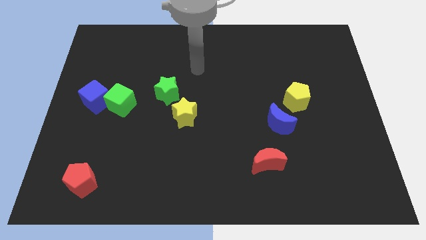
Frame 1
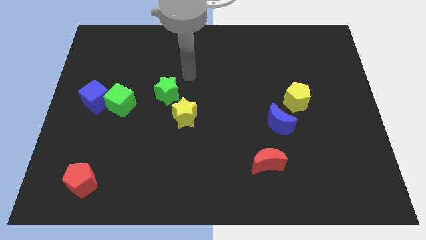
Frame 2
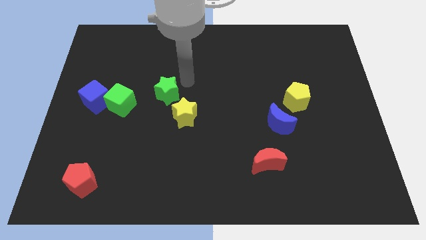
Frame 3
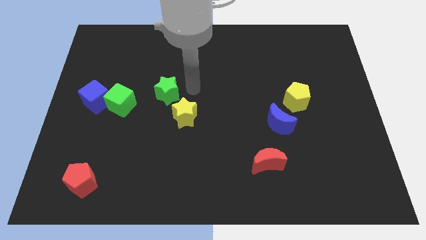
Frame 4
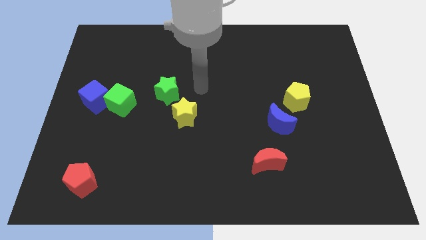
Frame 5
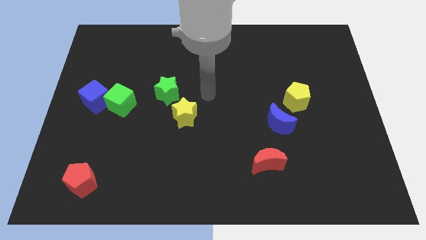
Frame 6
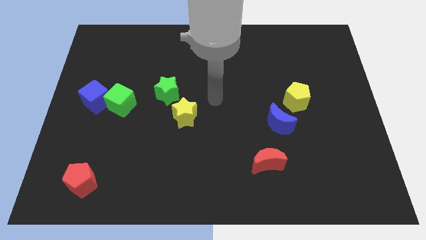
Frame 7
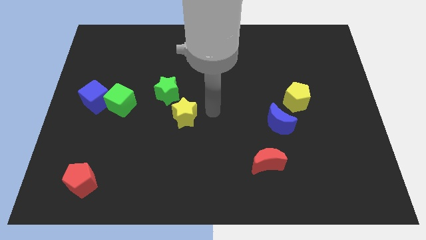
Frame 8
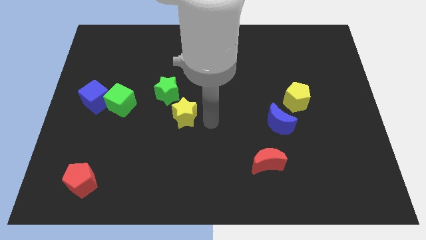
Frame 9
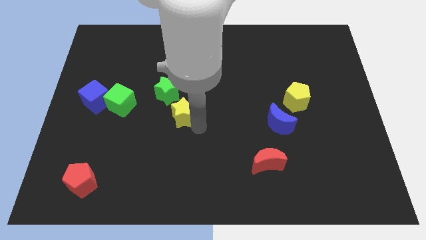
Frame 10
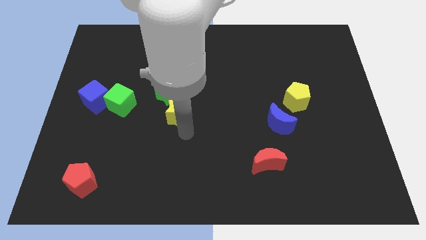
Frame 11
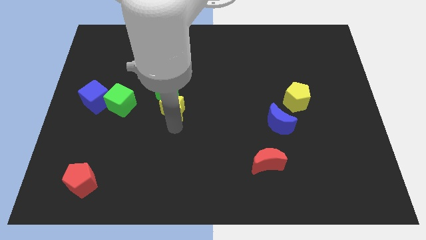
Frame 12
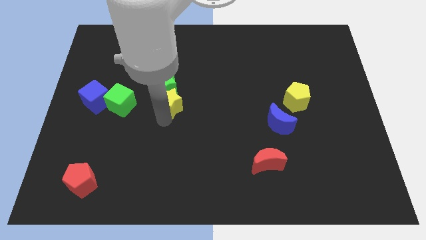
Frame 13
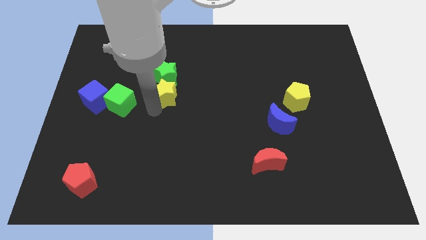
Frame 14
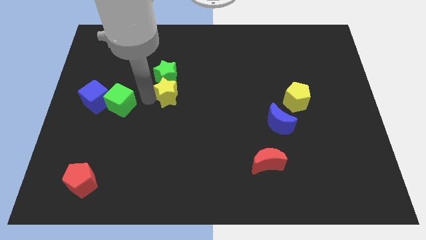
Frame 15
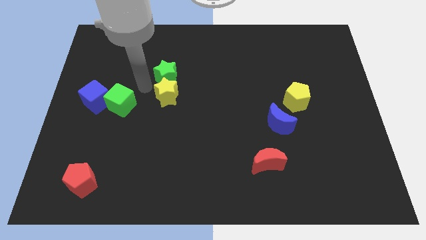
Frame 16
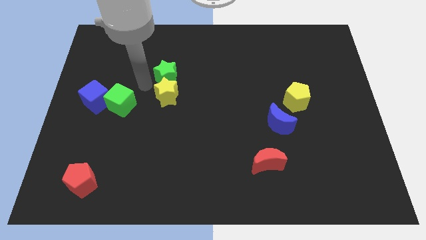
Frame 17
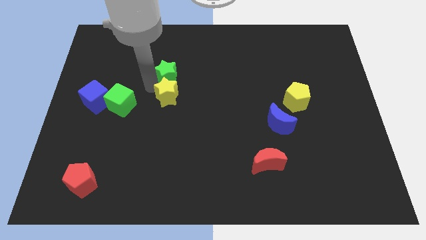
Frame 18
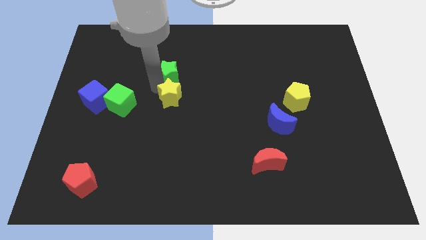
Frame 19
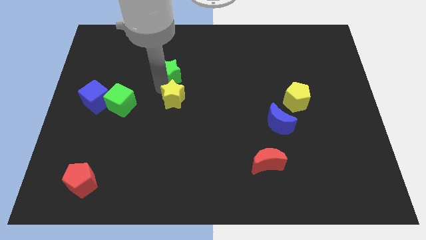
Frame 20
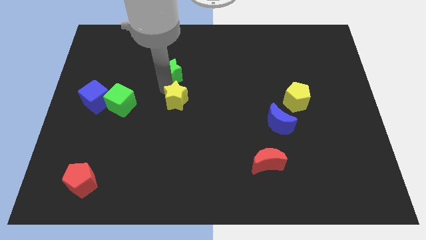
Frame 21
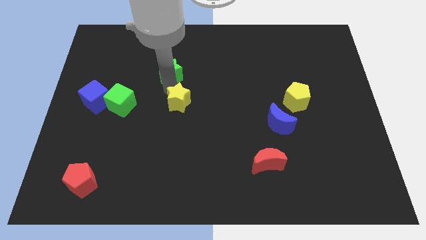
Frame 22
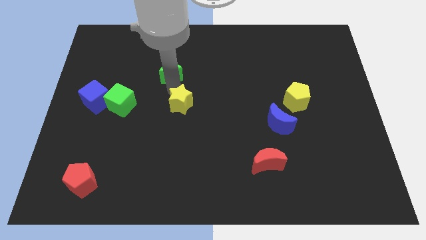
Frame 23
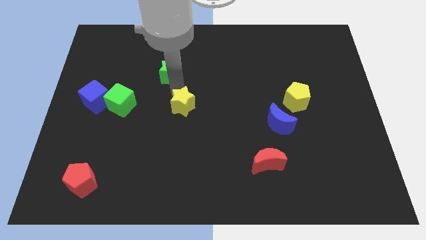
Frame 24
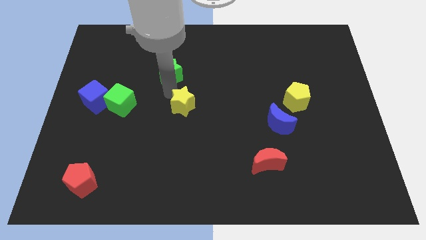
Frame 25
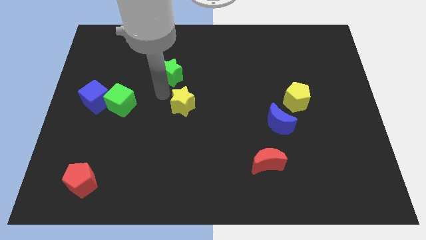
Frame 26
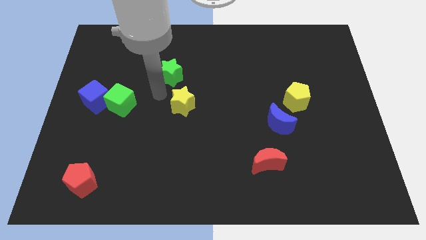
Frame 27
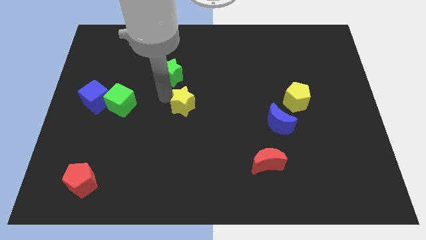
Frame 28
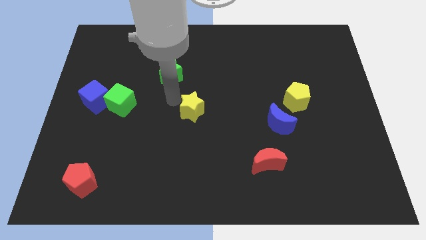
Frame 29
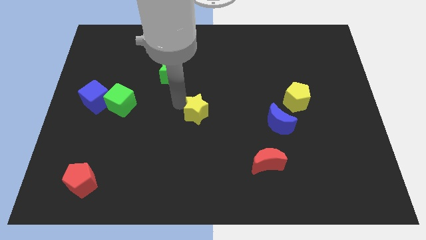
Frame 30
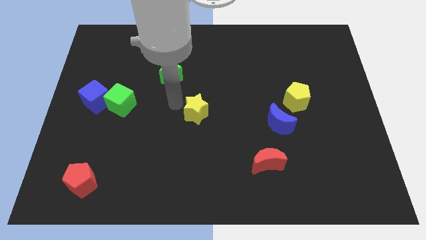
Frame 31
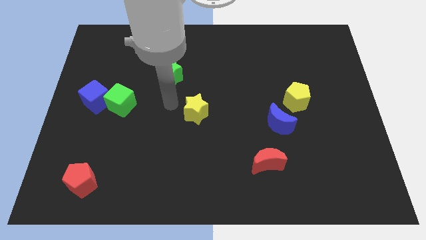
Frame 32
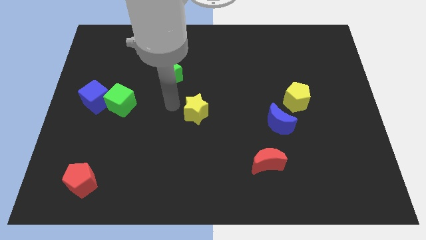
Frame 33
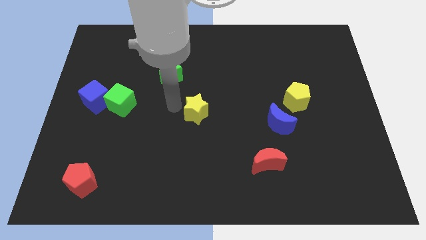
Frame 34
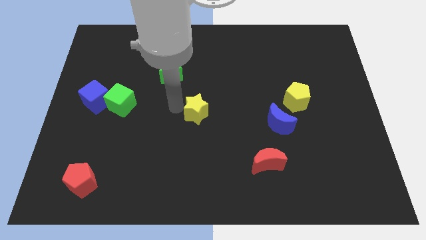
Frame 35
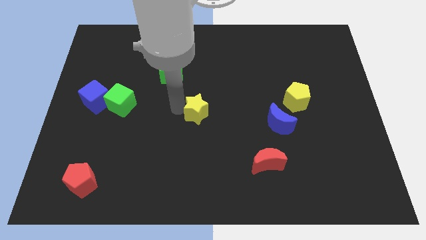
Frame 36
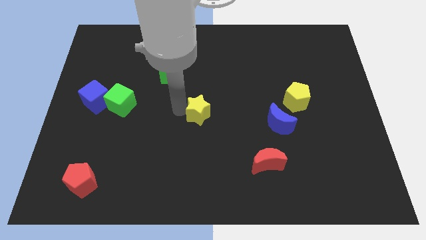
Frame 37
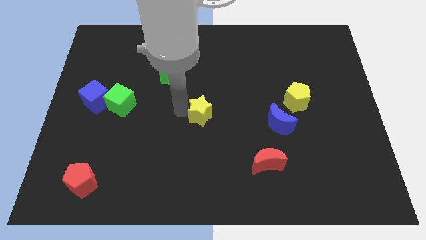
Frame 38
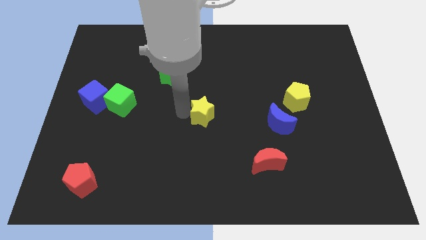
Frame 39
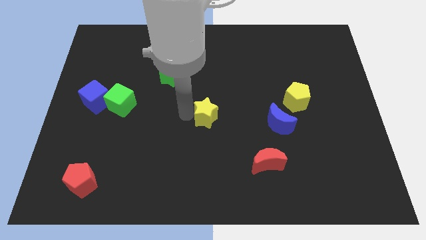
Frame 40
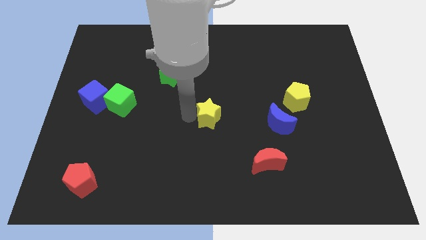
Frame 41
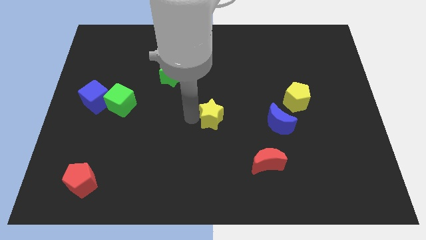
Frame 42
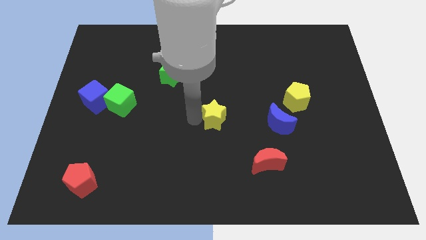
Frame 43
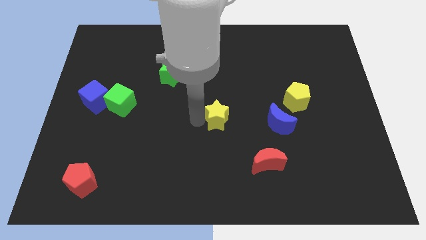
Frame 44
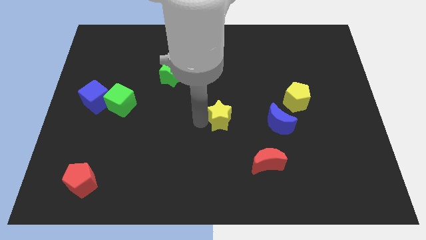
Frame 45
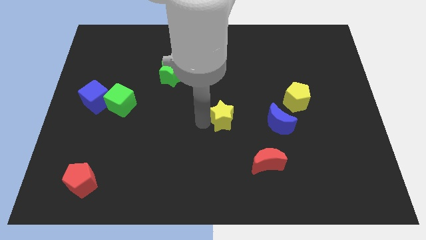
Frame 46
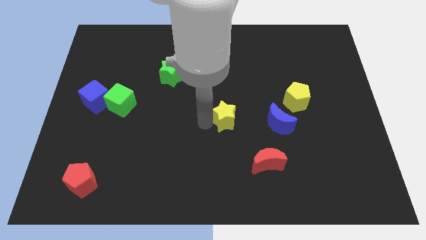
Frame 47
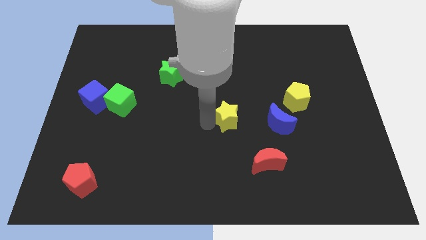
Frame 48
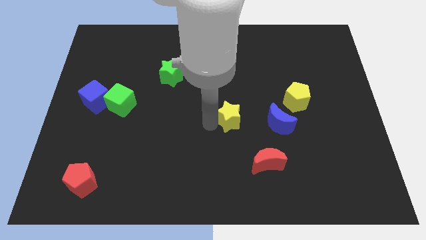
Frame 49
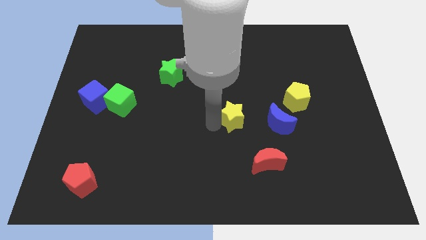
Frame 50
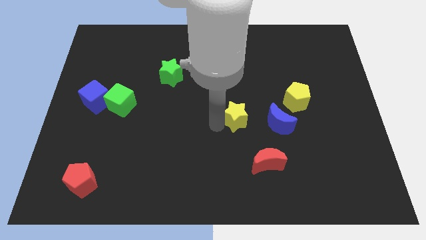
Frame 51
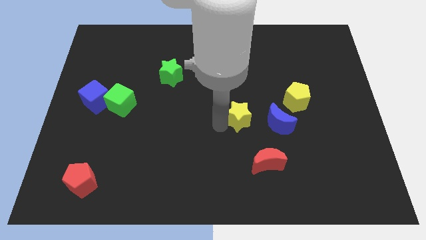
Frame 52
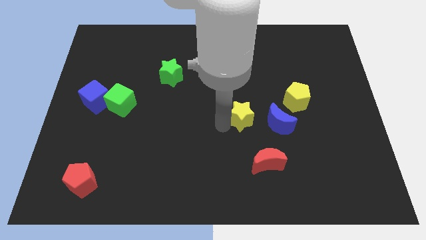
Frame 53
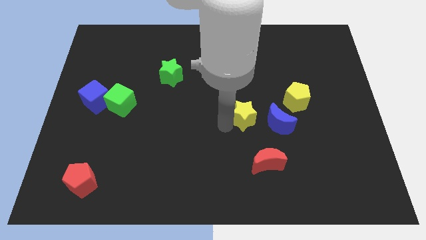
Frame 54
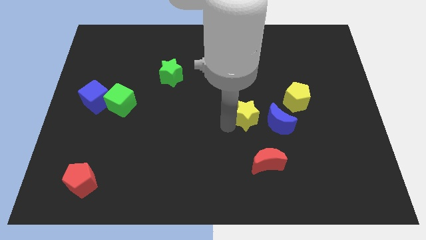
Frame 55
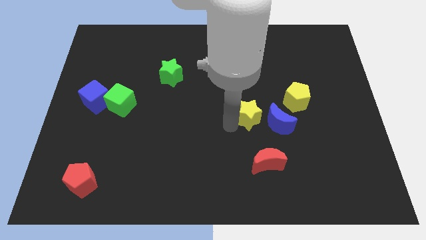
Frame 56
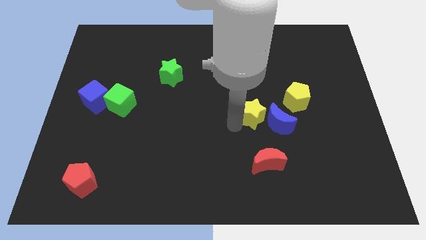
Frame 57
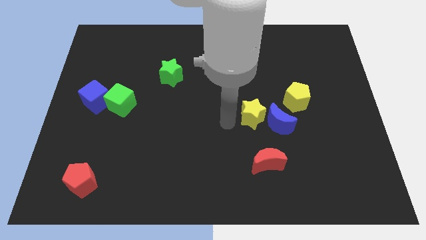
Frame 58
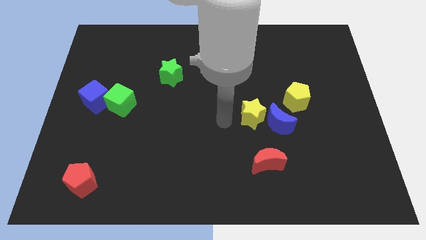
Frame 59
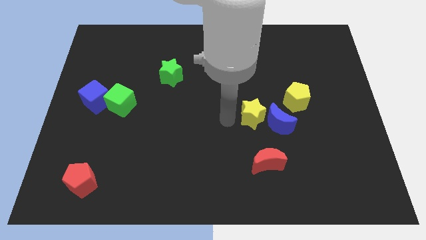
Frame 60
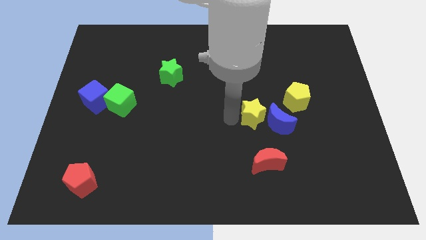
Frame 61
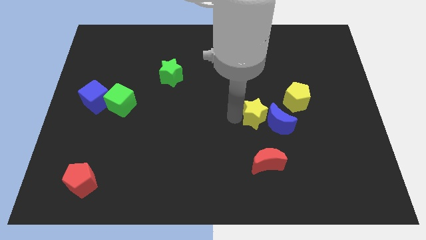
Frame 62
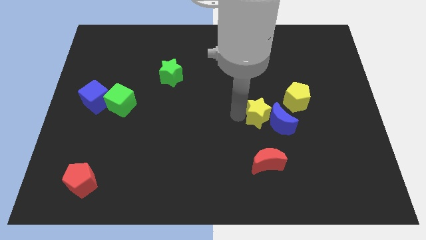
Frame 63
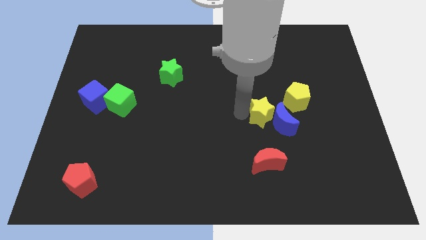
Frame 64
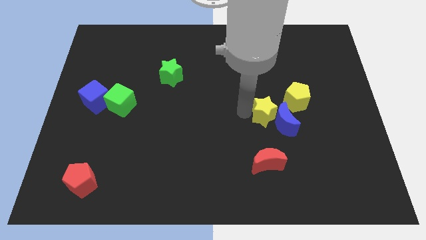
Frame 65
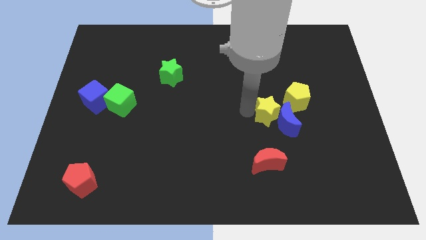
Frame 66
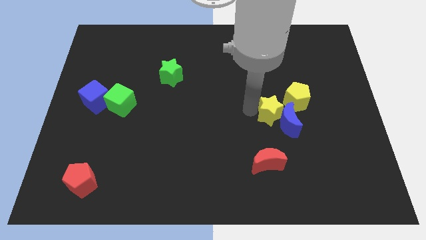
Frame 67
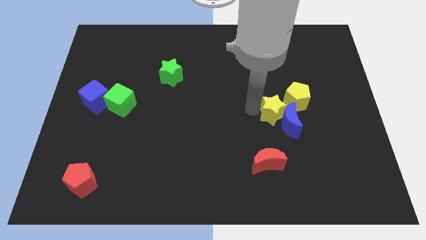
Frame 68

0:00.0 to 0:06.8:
slide the yellow star to the right

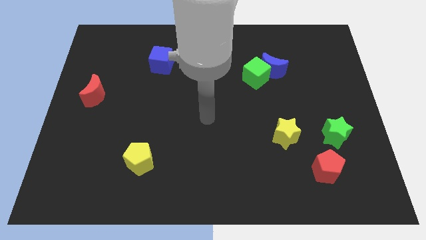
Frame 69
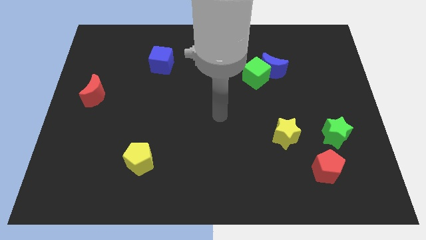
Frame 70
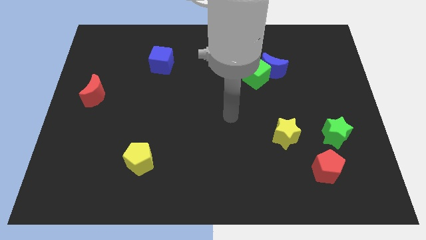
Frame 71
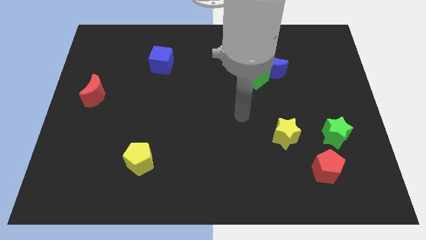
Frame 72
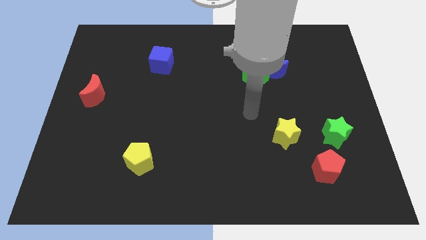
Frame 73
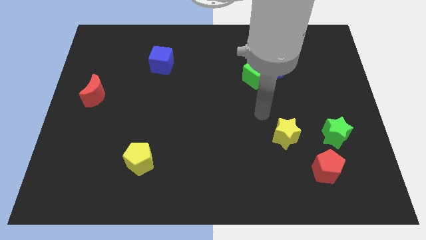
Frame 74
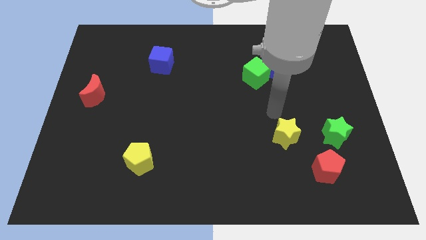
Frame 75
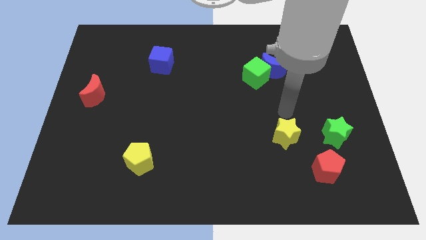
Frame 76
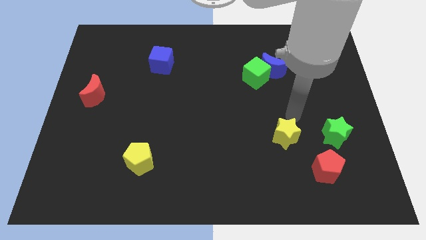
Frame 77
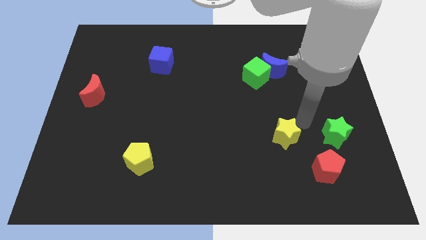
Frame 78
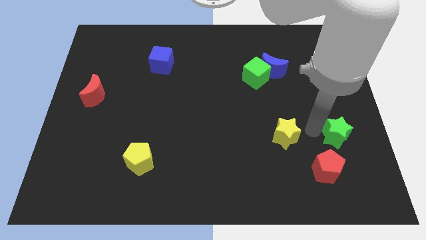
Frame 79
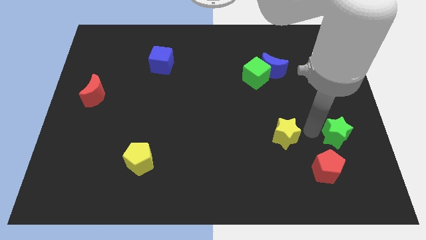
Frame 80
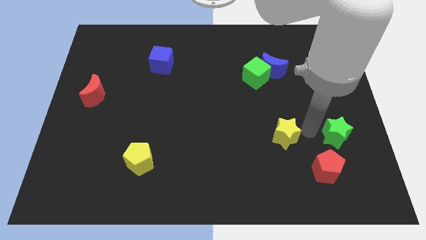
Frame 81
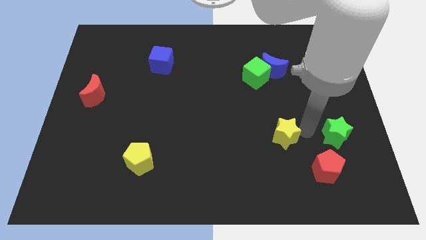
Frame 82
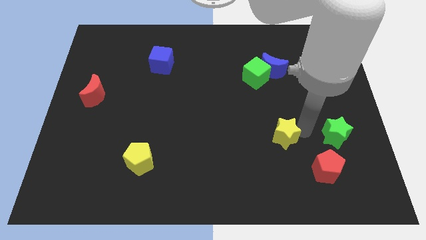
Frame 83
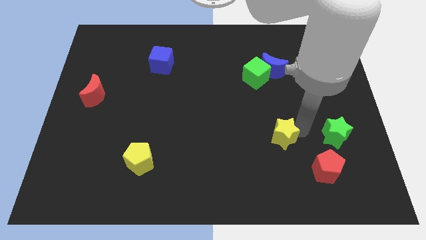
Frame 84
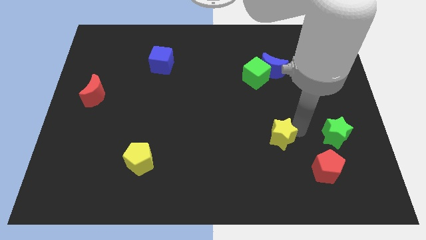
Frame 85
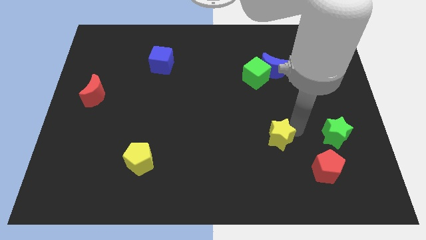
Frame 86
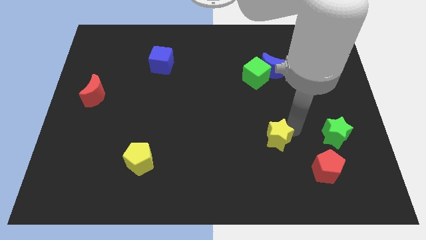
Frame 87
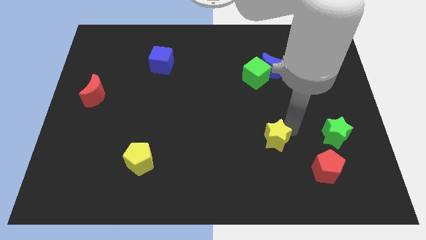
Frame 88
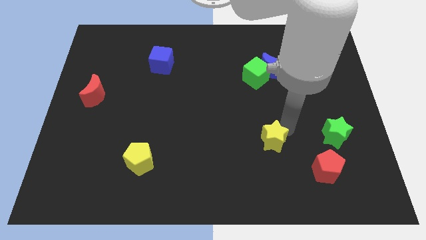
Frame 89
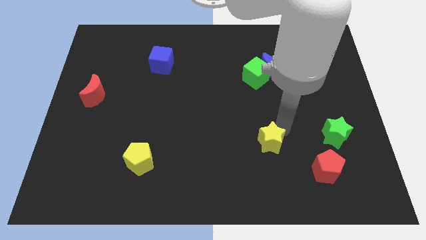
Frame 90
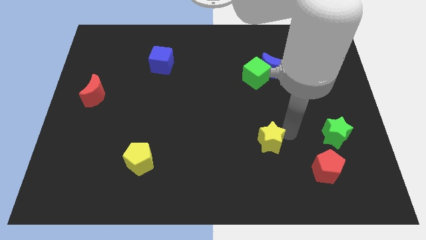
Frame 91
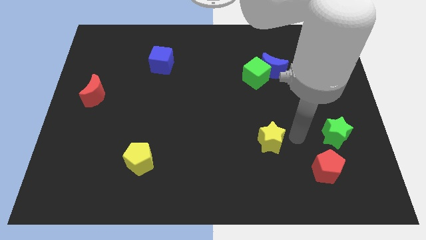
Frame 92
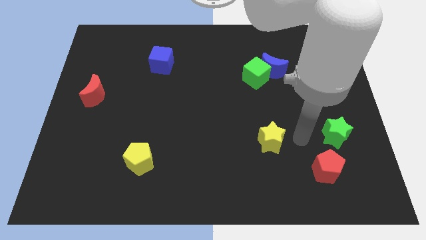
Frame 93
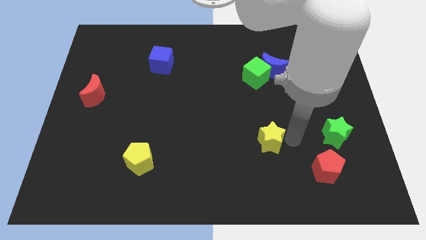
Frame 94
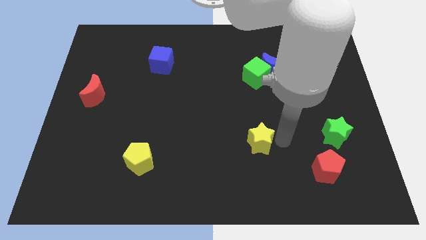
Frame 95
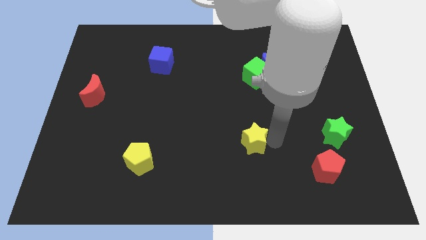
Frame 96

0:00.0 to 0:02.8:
slide the yellow star to the left slightly
